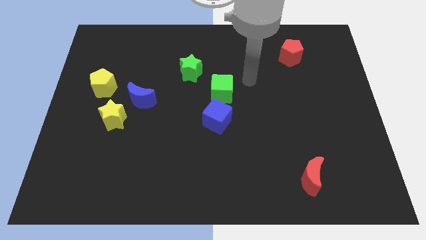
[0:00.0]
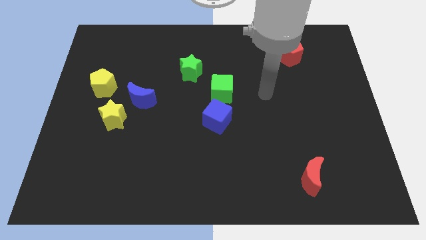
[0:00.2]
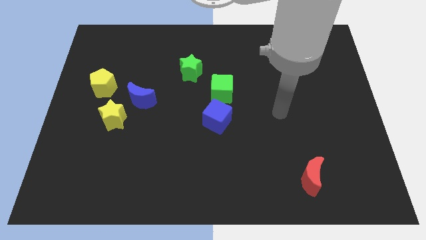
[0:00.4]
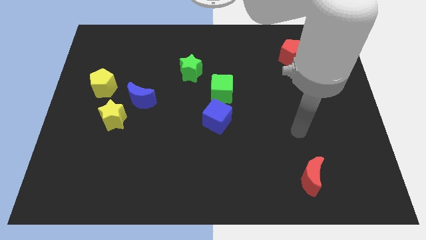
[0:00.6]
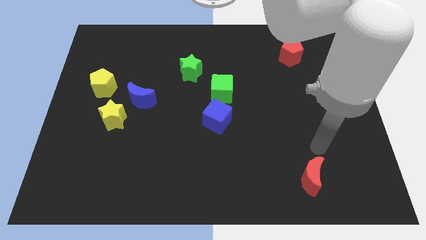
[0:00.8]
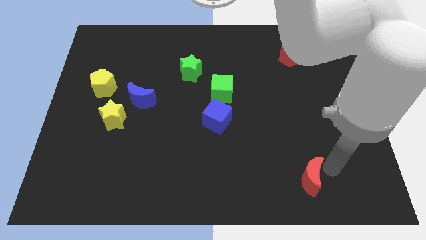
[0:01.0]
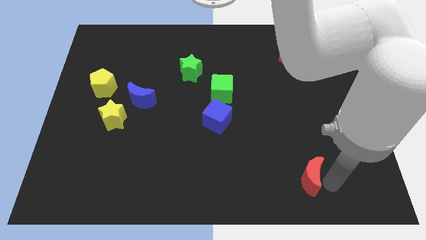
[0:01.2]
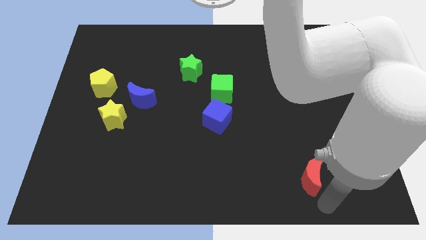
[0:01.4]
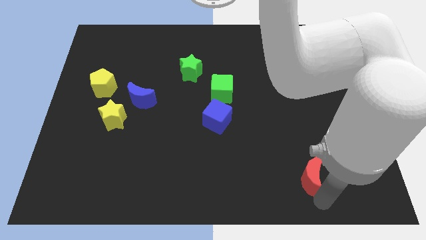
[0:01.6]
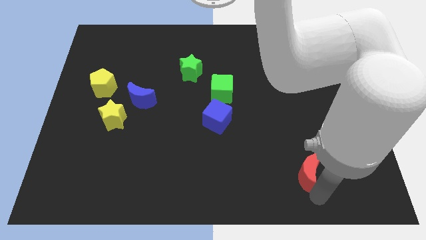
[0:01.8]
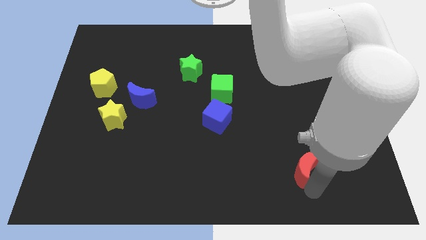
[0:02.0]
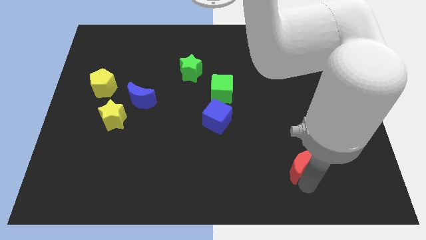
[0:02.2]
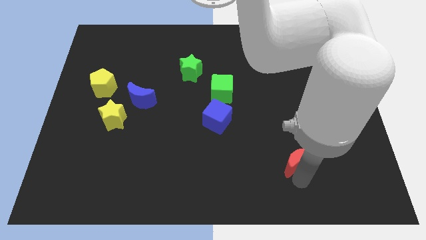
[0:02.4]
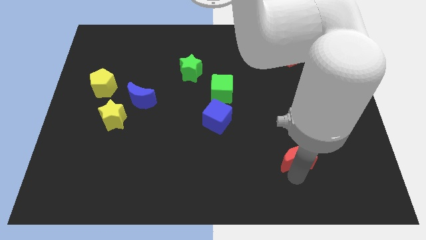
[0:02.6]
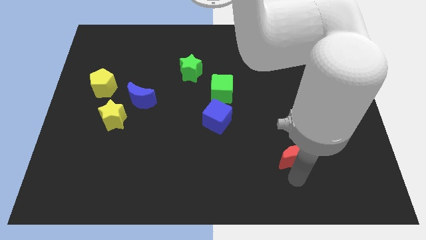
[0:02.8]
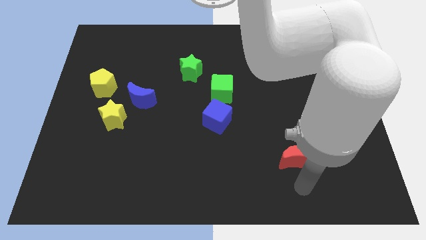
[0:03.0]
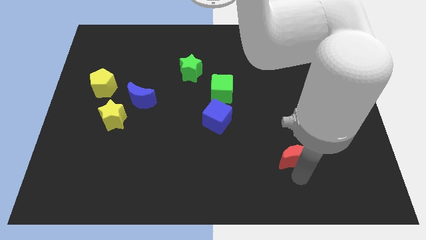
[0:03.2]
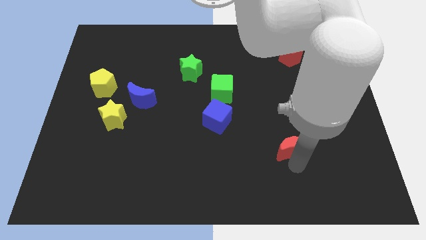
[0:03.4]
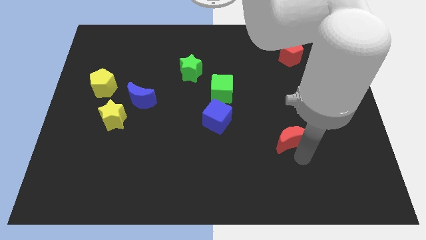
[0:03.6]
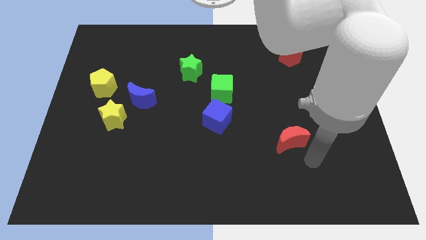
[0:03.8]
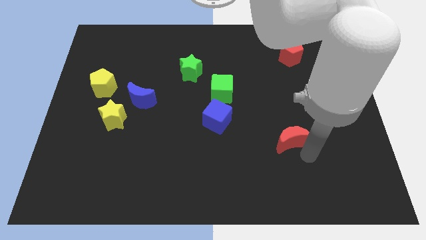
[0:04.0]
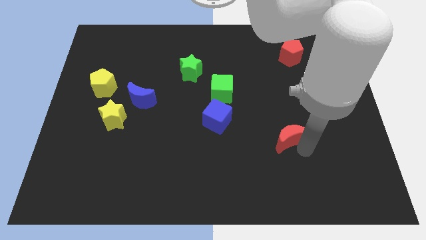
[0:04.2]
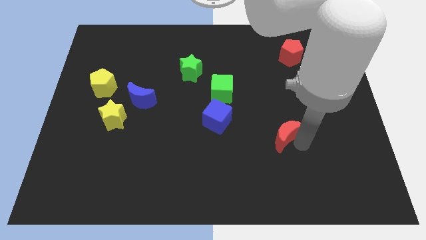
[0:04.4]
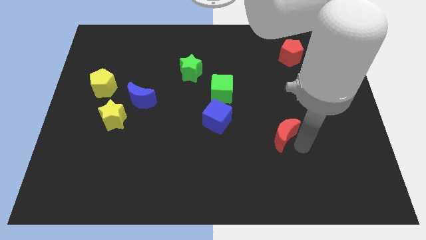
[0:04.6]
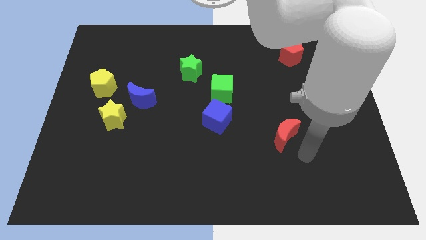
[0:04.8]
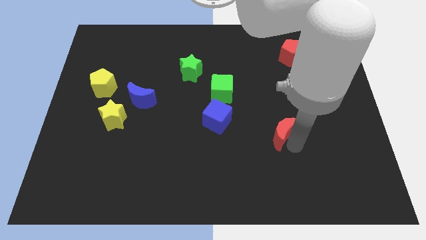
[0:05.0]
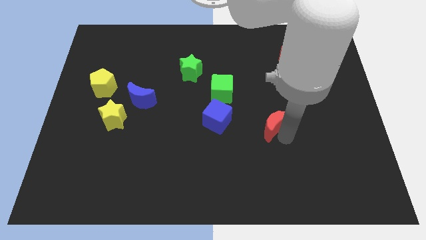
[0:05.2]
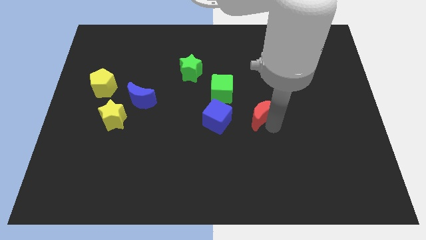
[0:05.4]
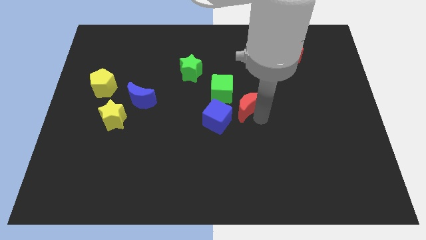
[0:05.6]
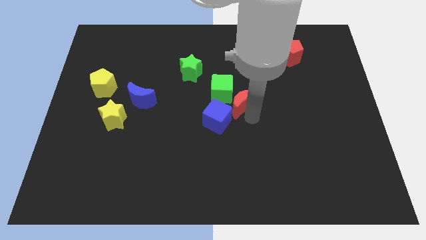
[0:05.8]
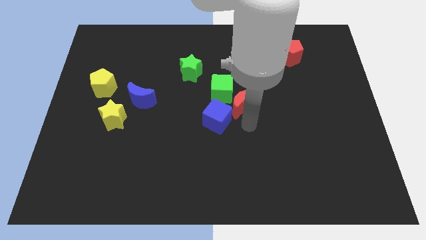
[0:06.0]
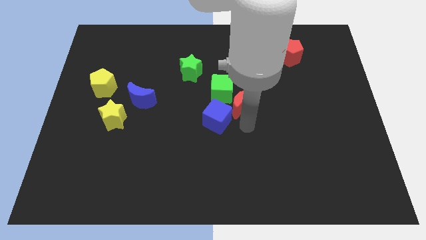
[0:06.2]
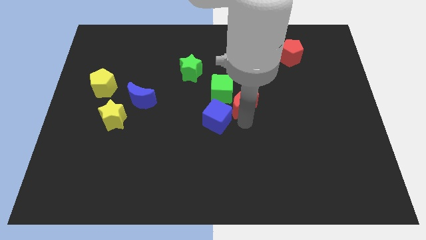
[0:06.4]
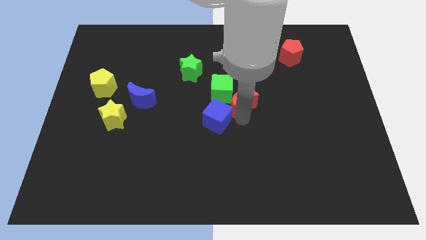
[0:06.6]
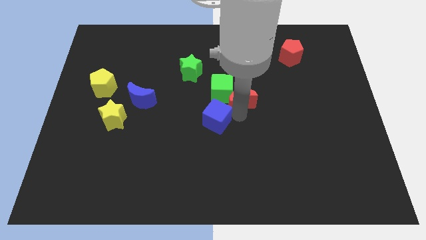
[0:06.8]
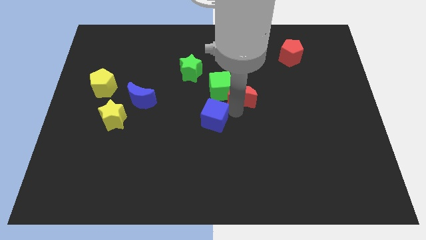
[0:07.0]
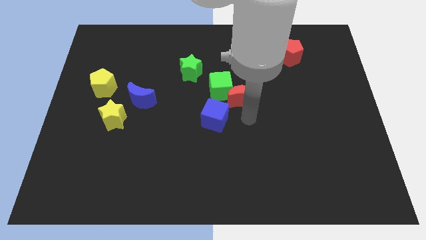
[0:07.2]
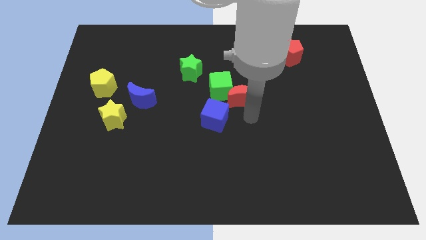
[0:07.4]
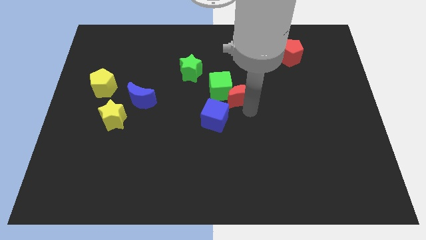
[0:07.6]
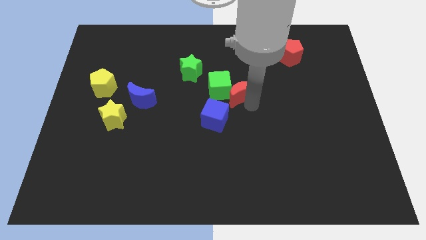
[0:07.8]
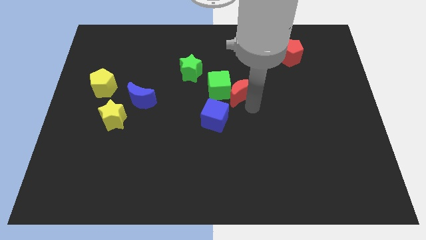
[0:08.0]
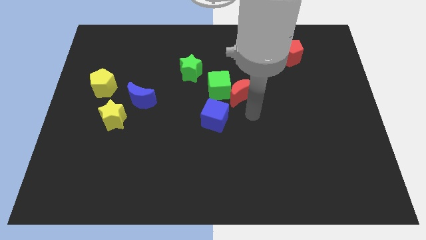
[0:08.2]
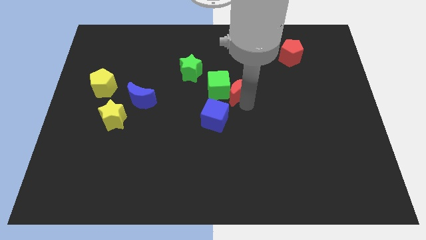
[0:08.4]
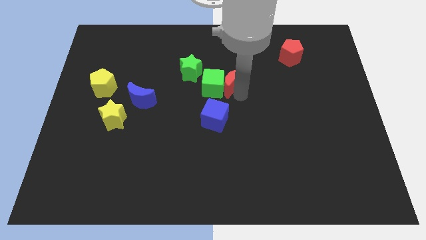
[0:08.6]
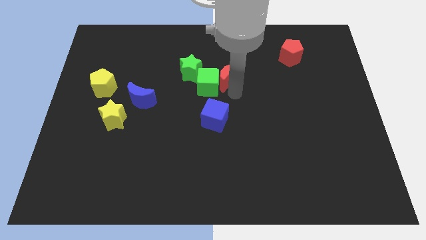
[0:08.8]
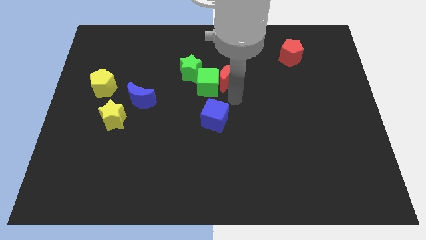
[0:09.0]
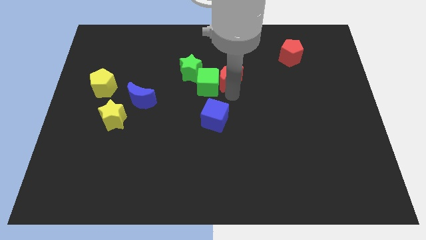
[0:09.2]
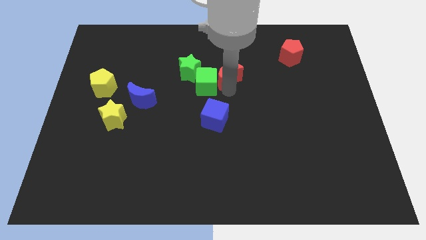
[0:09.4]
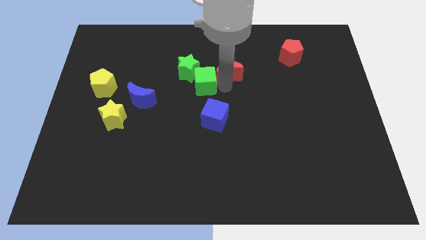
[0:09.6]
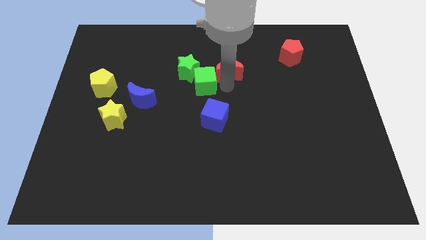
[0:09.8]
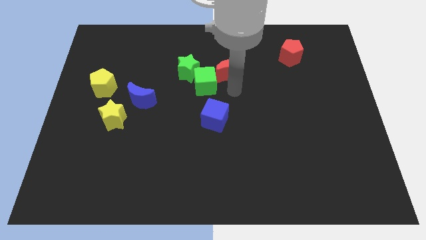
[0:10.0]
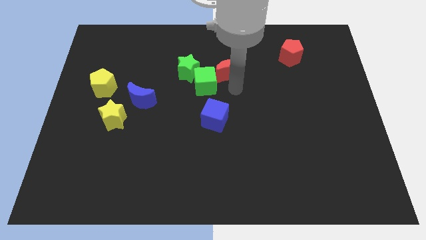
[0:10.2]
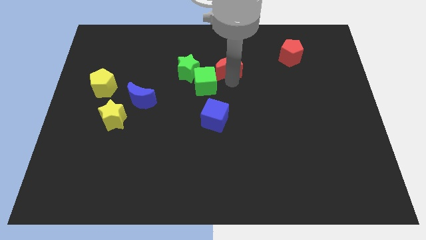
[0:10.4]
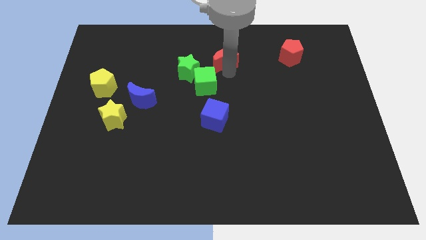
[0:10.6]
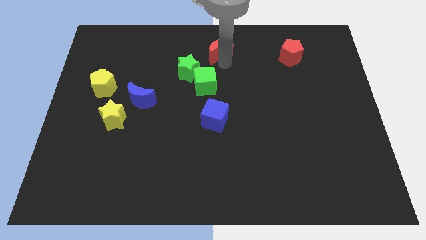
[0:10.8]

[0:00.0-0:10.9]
slide the red moon to the top side
